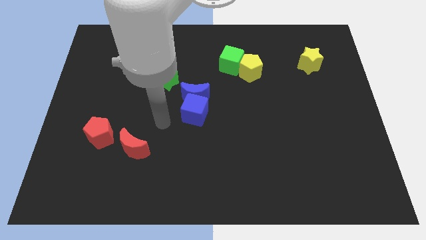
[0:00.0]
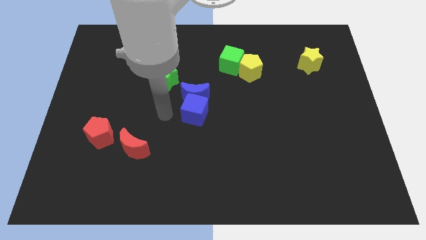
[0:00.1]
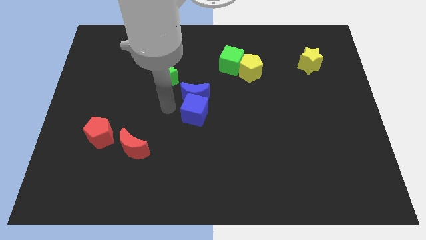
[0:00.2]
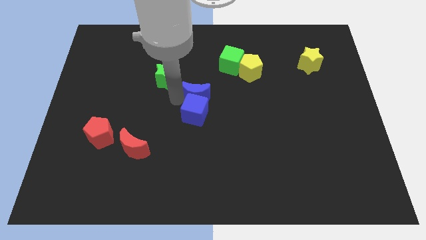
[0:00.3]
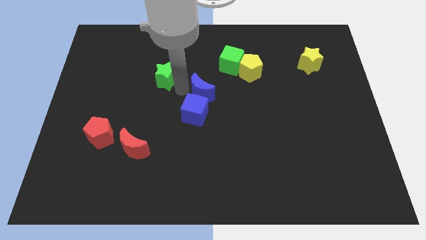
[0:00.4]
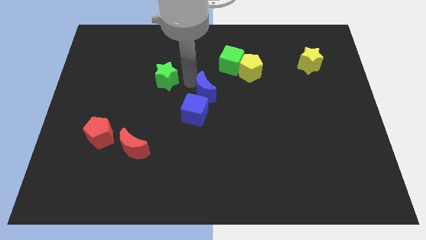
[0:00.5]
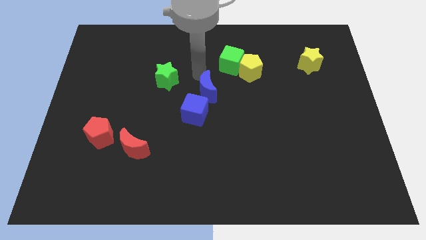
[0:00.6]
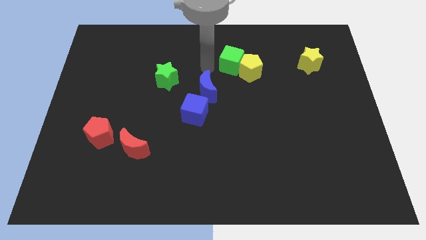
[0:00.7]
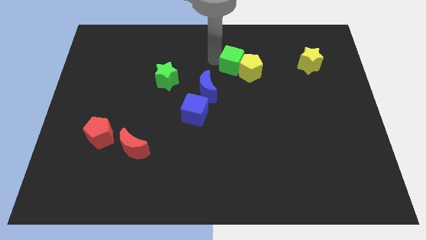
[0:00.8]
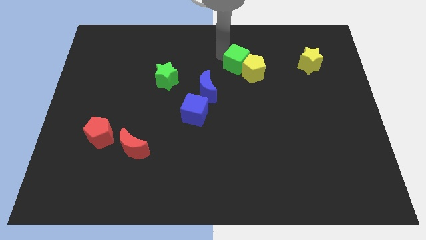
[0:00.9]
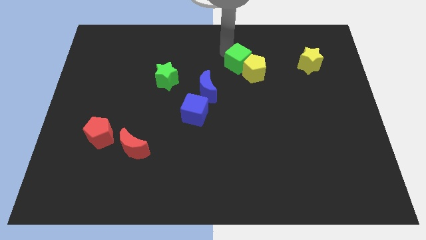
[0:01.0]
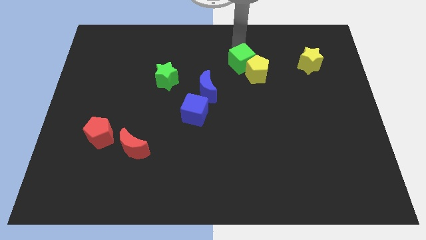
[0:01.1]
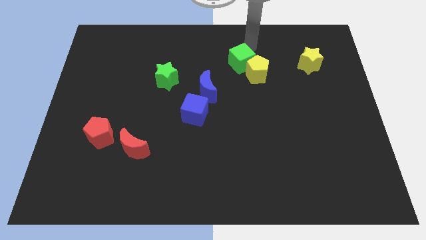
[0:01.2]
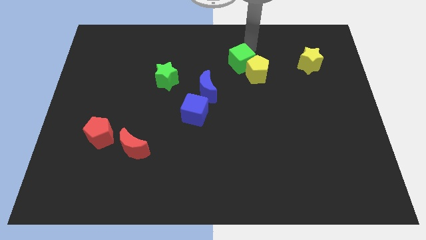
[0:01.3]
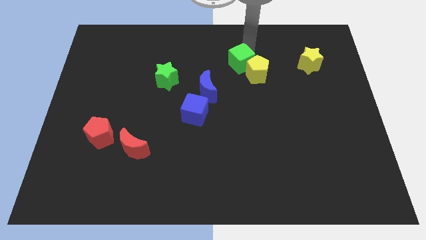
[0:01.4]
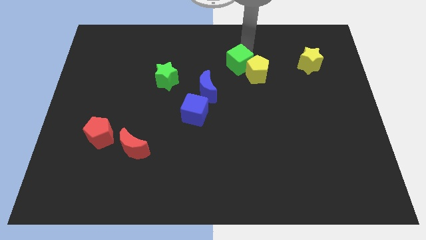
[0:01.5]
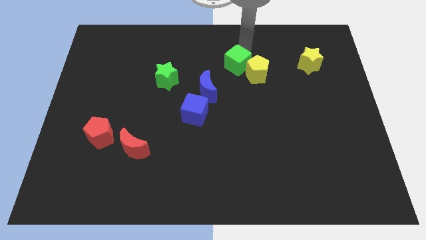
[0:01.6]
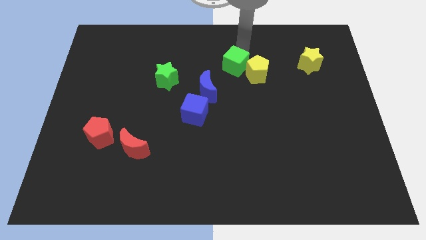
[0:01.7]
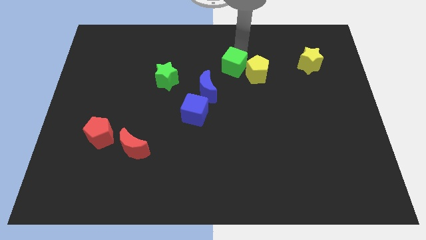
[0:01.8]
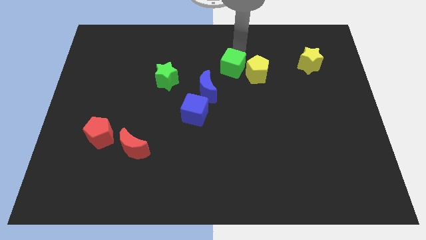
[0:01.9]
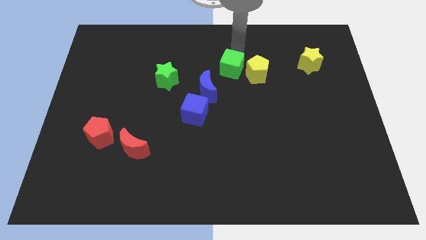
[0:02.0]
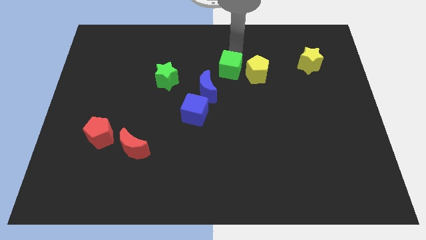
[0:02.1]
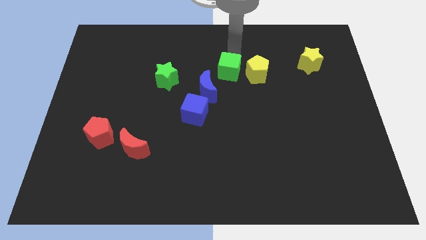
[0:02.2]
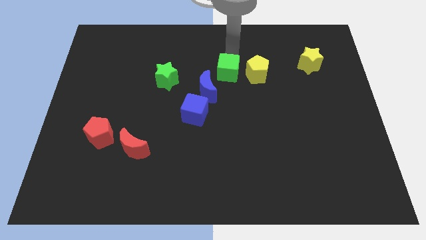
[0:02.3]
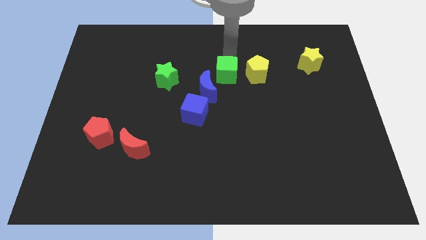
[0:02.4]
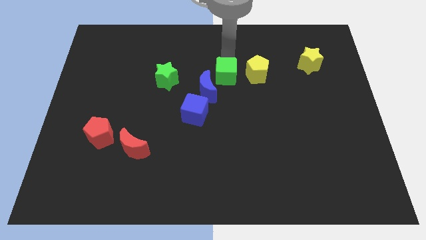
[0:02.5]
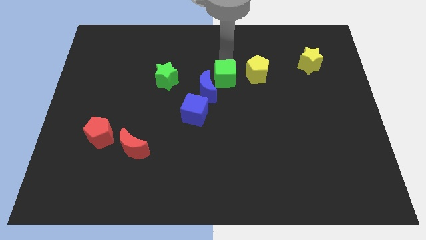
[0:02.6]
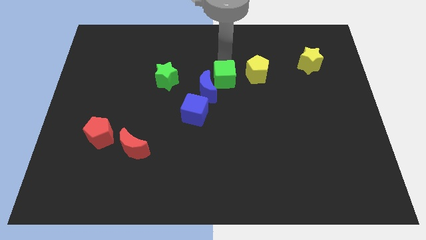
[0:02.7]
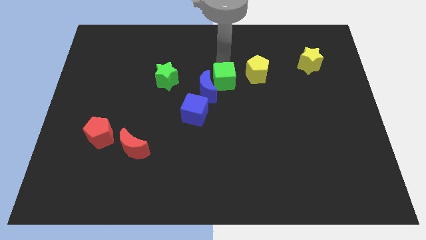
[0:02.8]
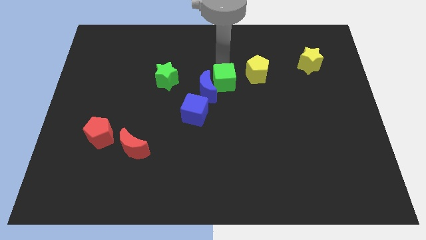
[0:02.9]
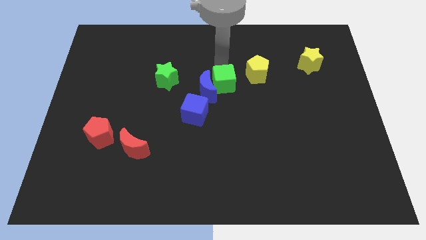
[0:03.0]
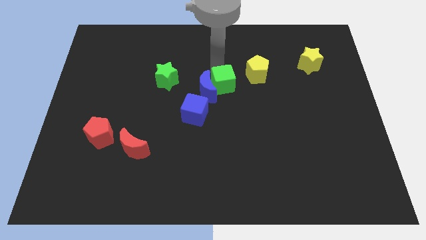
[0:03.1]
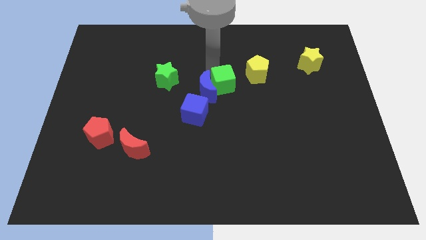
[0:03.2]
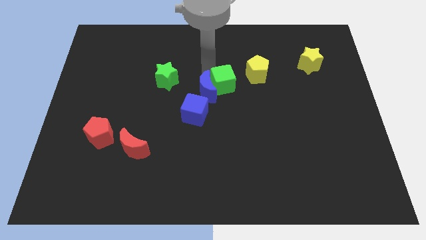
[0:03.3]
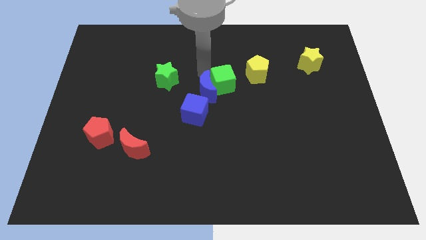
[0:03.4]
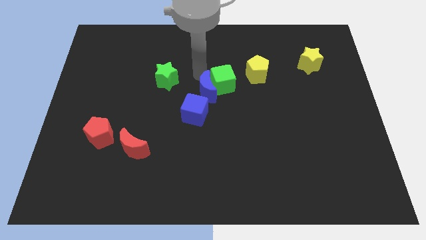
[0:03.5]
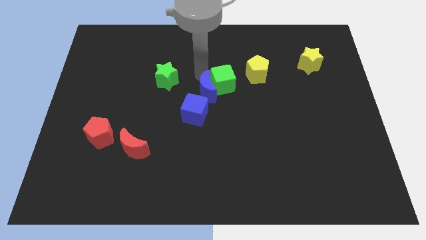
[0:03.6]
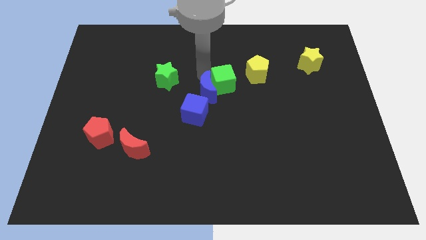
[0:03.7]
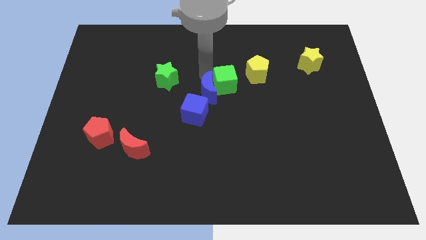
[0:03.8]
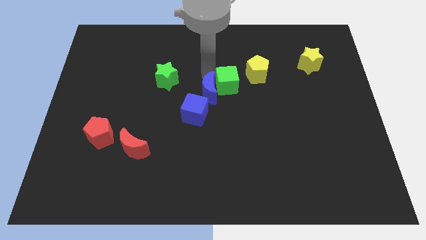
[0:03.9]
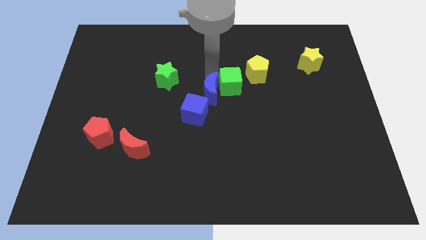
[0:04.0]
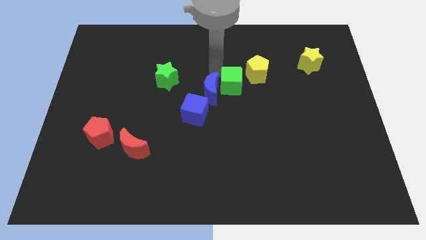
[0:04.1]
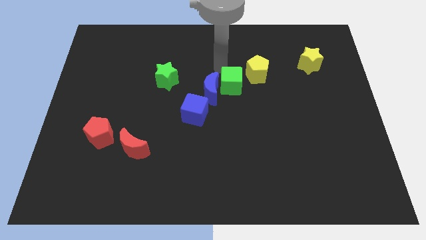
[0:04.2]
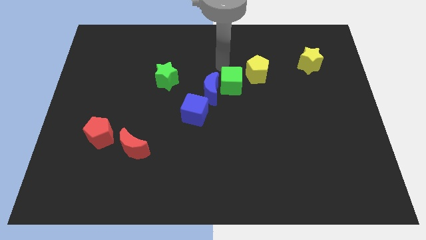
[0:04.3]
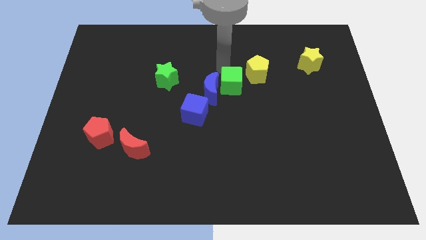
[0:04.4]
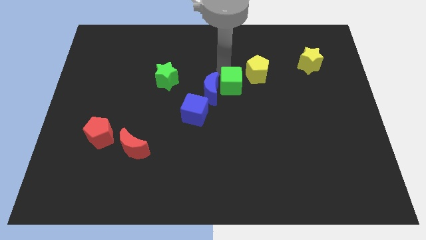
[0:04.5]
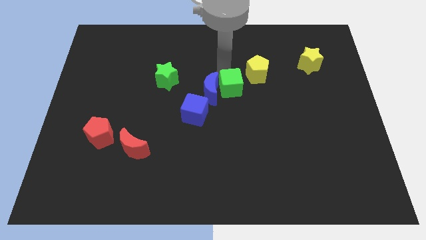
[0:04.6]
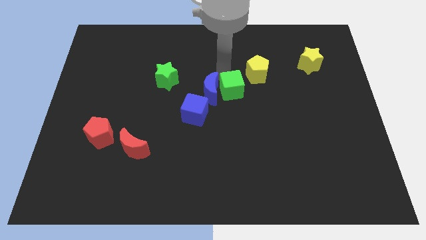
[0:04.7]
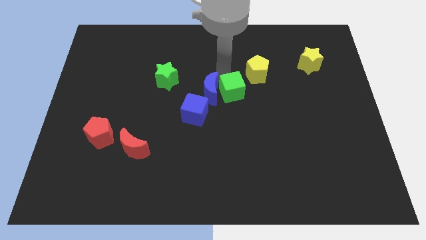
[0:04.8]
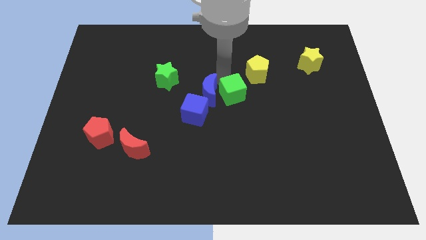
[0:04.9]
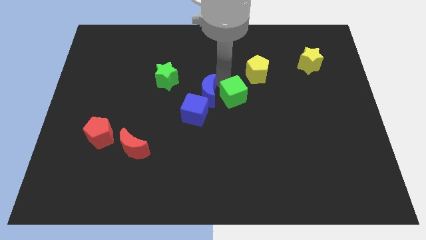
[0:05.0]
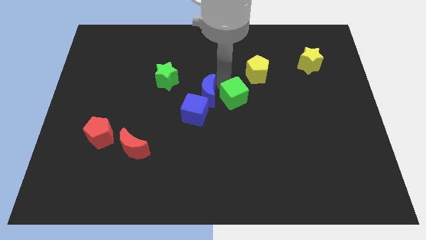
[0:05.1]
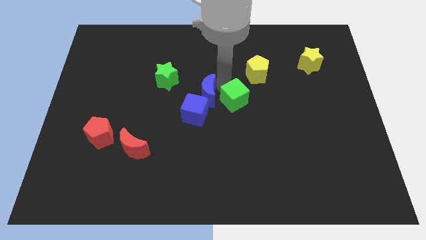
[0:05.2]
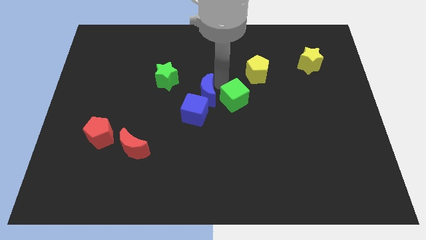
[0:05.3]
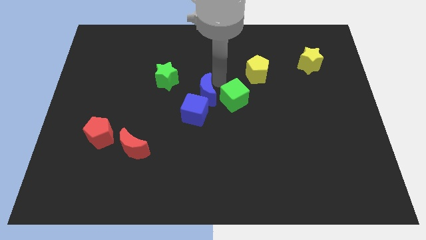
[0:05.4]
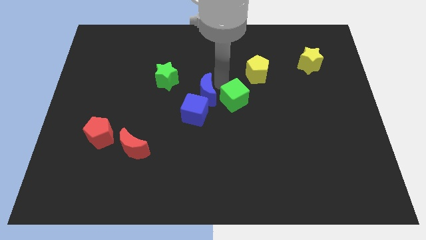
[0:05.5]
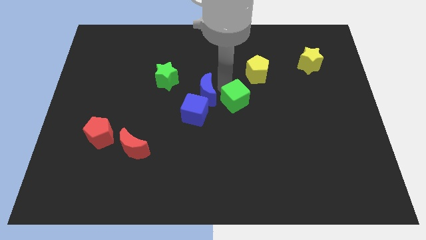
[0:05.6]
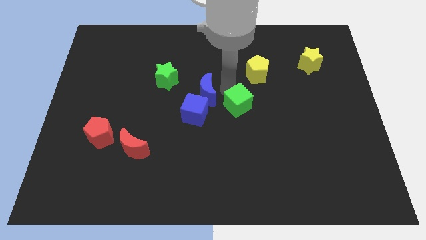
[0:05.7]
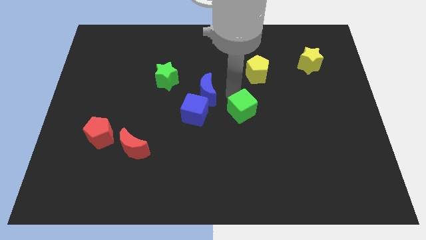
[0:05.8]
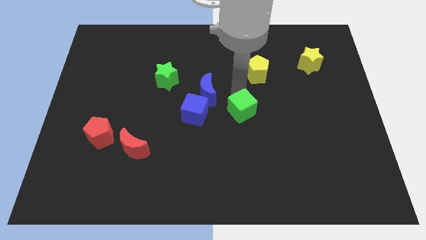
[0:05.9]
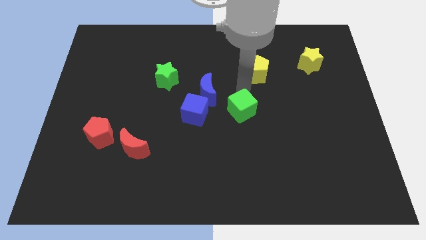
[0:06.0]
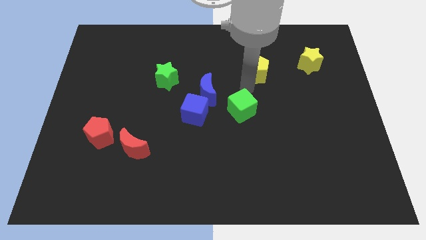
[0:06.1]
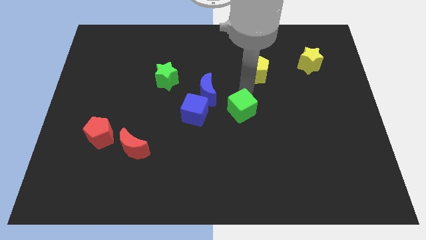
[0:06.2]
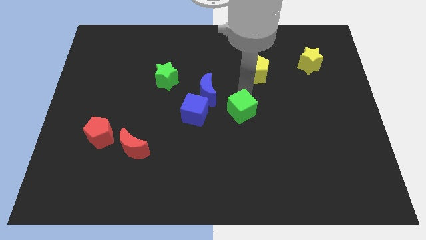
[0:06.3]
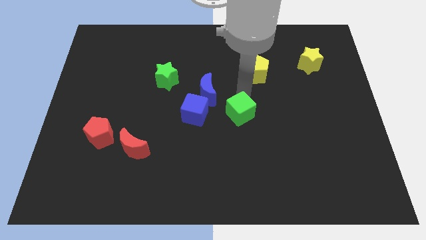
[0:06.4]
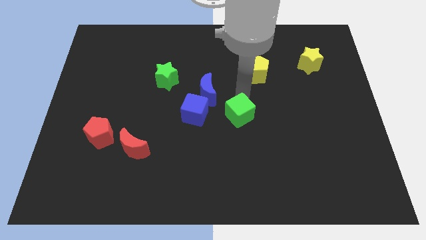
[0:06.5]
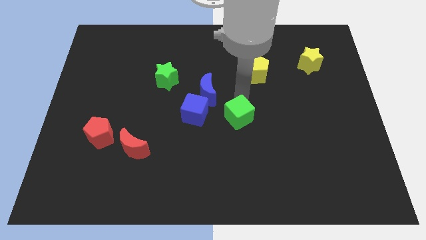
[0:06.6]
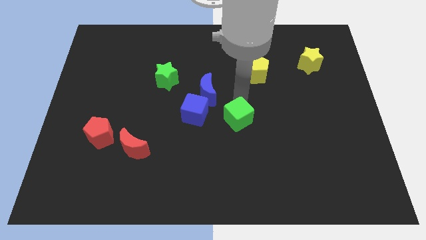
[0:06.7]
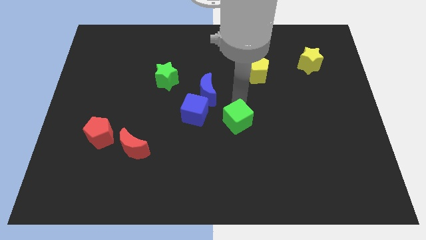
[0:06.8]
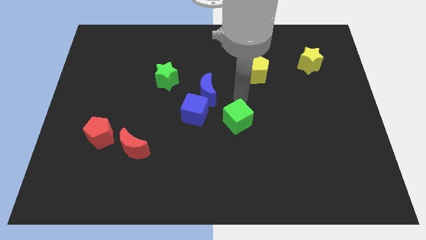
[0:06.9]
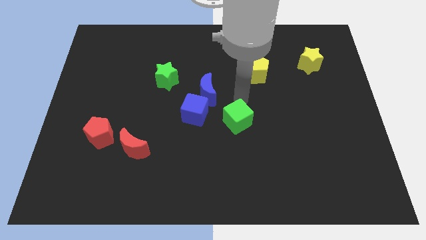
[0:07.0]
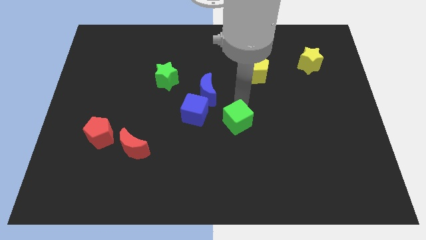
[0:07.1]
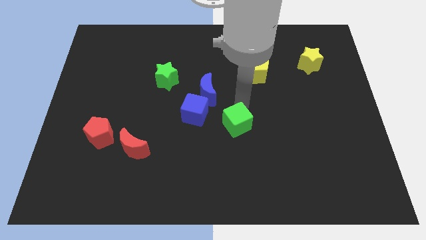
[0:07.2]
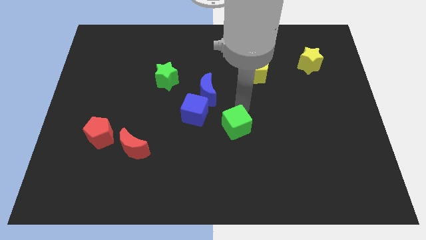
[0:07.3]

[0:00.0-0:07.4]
push the green cube down

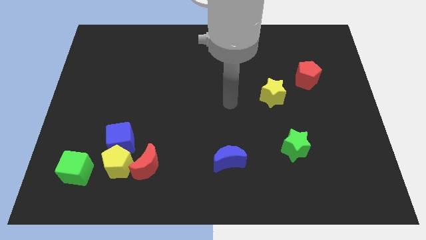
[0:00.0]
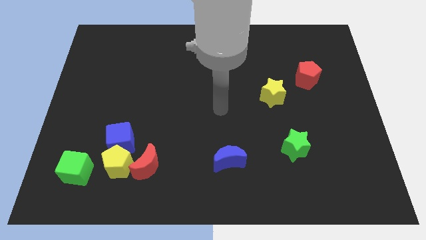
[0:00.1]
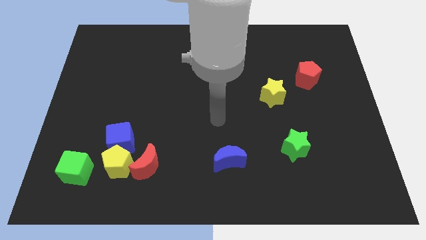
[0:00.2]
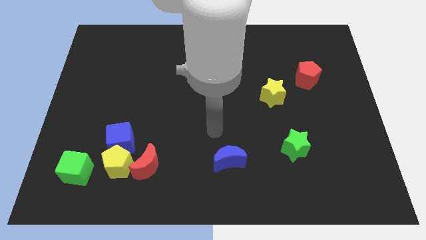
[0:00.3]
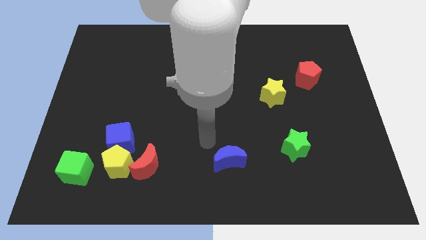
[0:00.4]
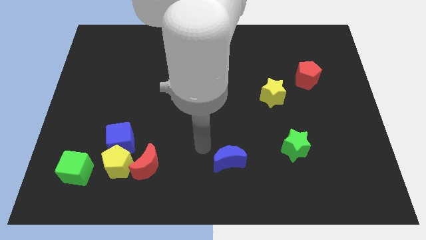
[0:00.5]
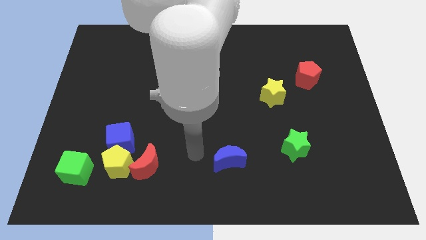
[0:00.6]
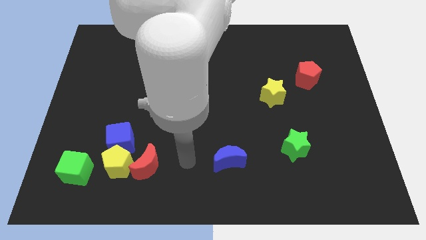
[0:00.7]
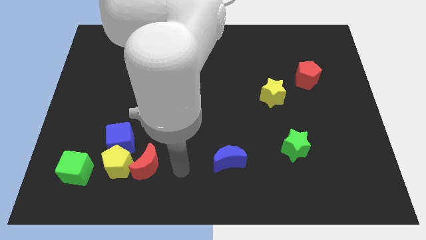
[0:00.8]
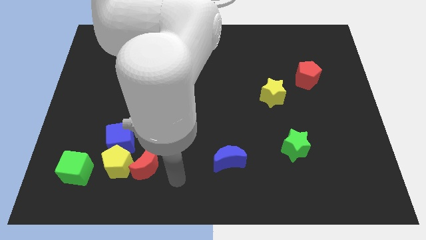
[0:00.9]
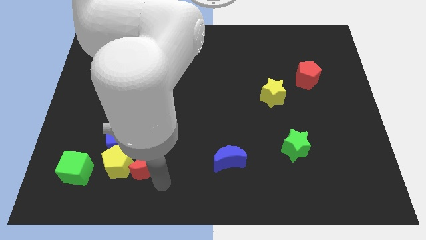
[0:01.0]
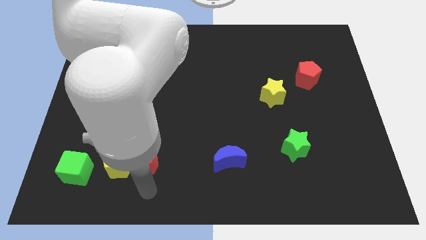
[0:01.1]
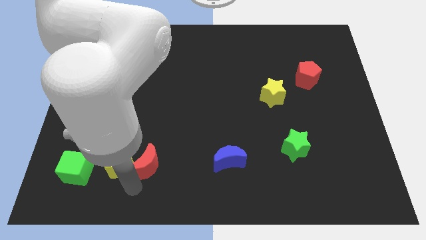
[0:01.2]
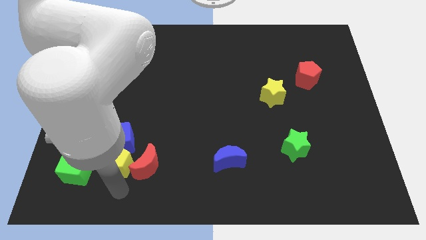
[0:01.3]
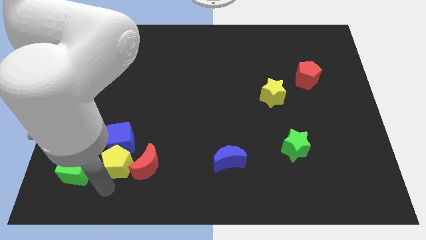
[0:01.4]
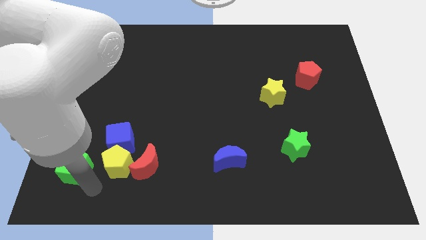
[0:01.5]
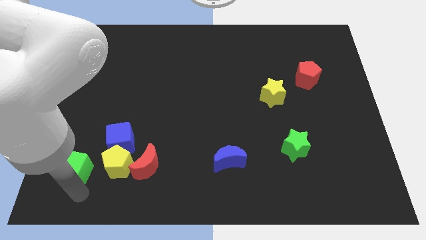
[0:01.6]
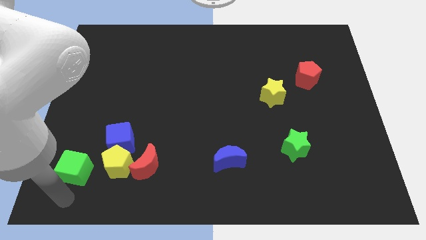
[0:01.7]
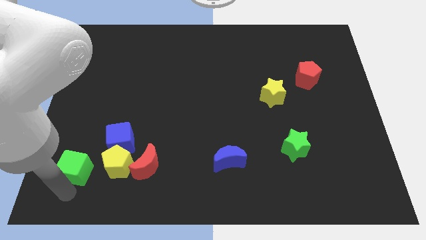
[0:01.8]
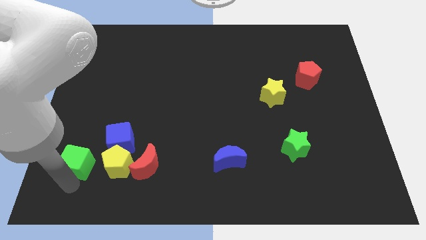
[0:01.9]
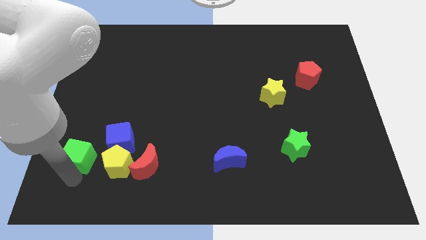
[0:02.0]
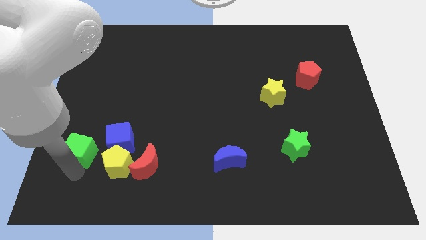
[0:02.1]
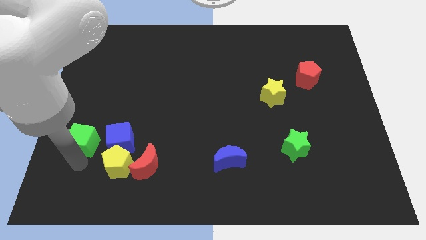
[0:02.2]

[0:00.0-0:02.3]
move the green cube up somewhat
